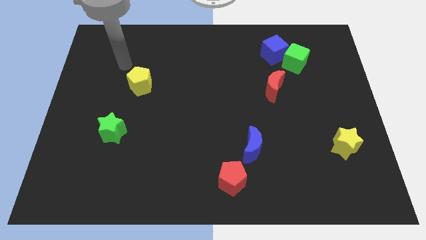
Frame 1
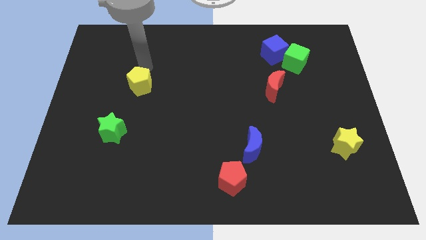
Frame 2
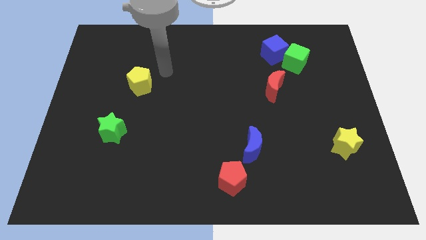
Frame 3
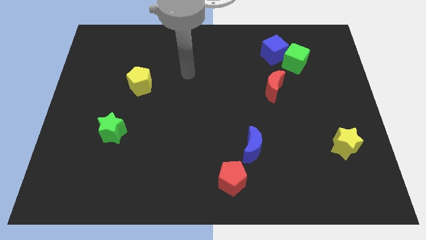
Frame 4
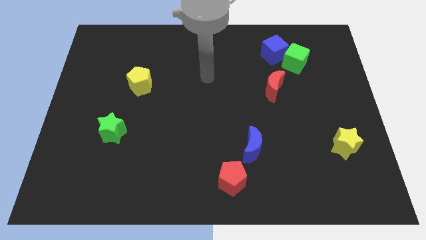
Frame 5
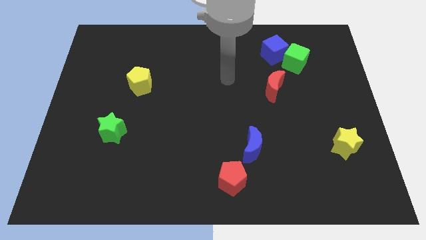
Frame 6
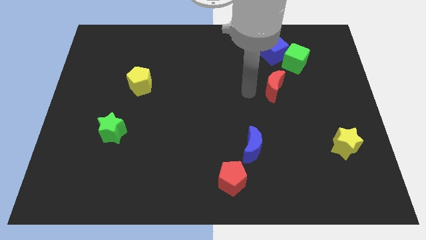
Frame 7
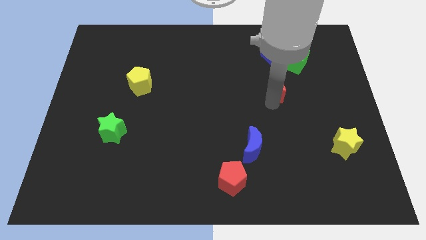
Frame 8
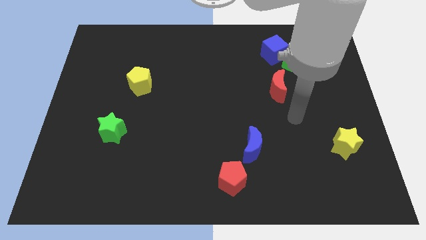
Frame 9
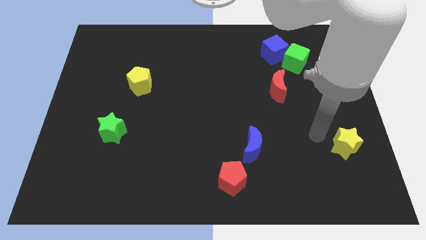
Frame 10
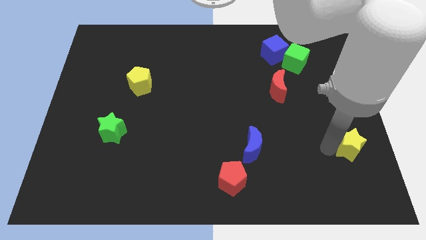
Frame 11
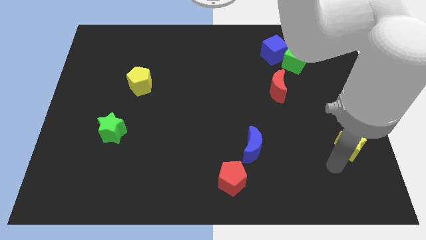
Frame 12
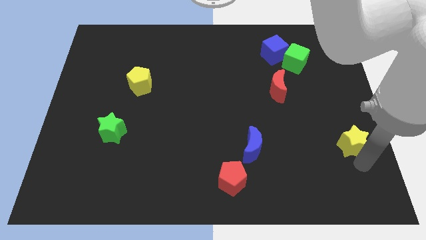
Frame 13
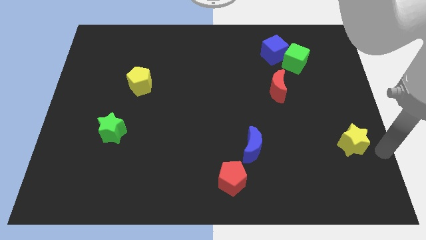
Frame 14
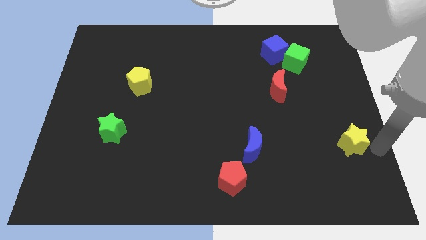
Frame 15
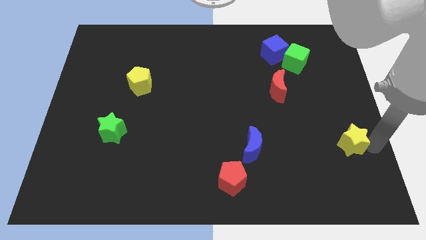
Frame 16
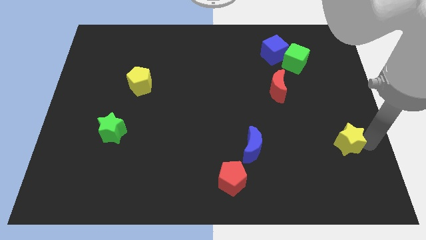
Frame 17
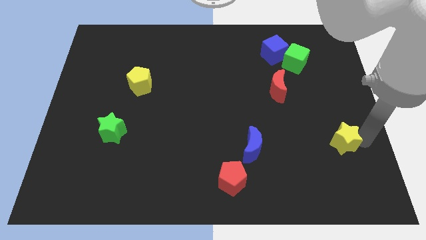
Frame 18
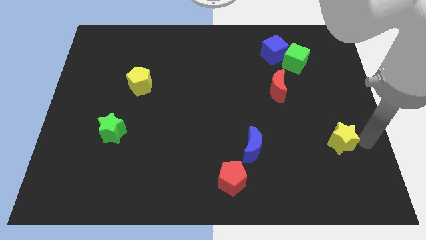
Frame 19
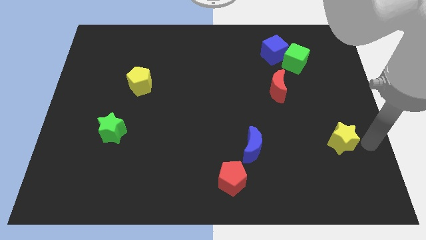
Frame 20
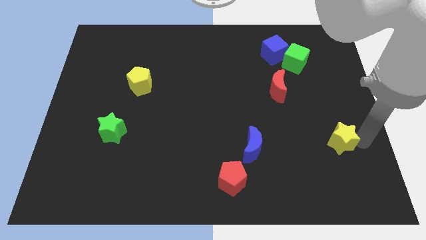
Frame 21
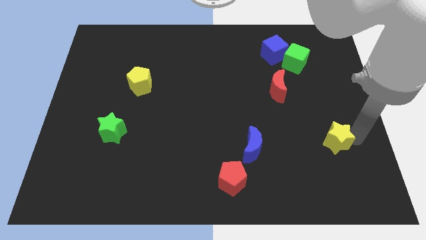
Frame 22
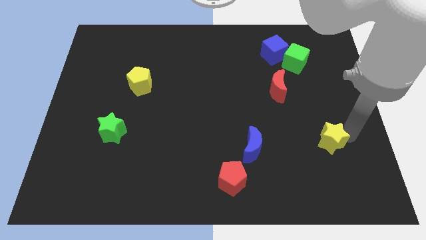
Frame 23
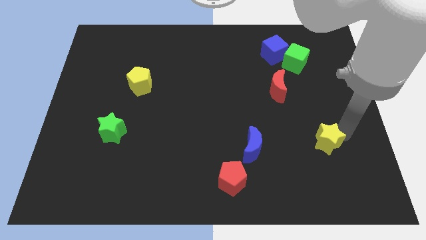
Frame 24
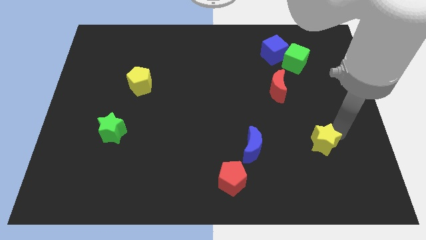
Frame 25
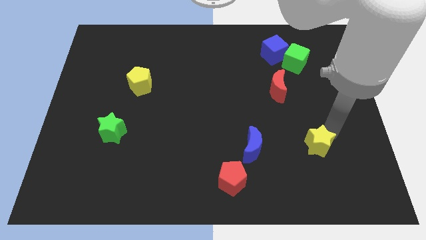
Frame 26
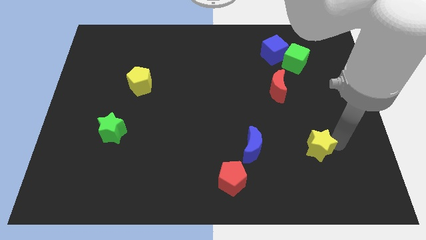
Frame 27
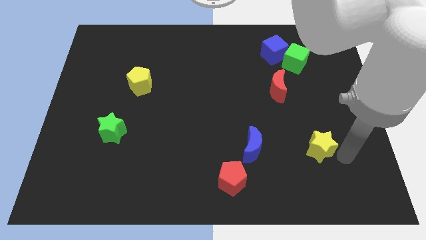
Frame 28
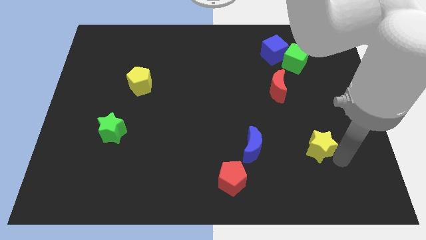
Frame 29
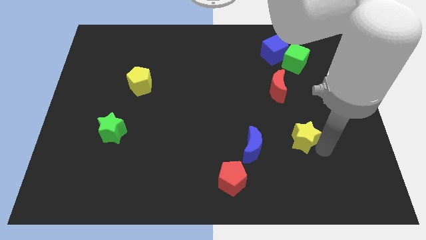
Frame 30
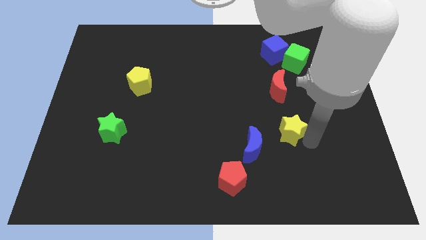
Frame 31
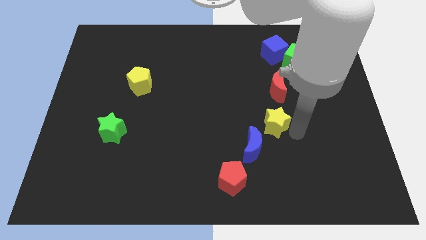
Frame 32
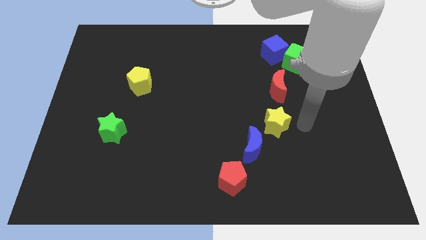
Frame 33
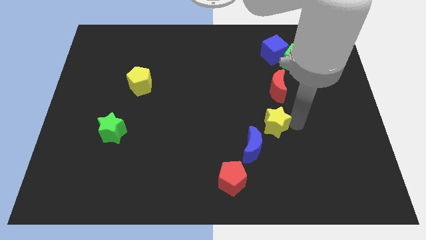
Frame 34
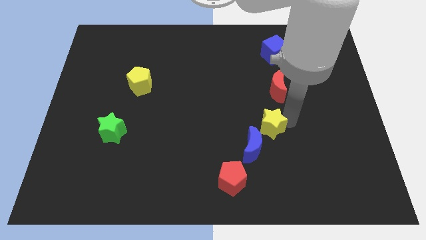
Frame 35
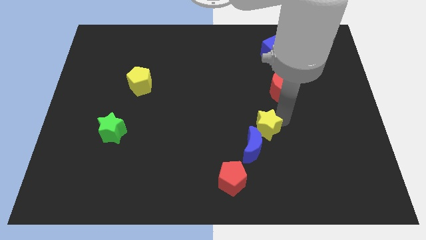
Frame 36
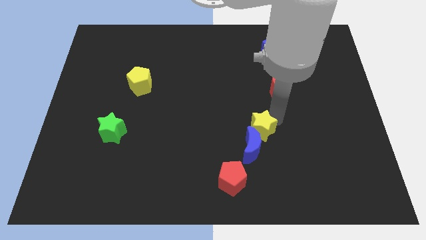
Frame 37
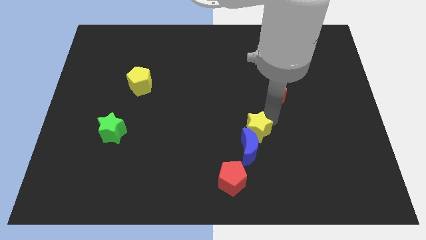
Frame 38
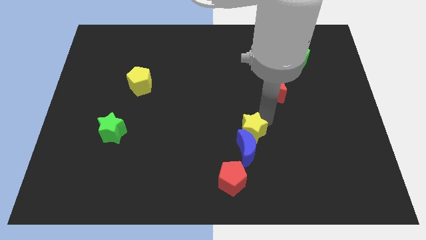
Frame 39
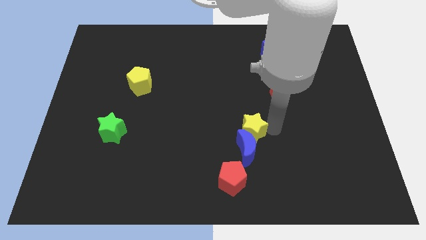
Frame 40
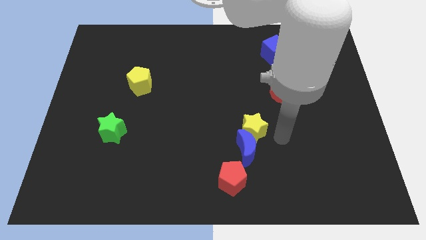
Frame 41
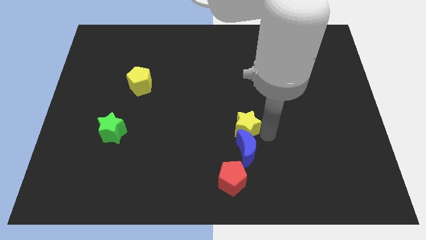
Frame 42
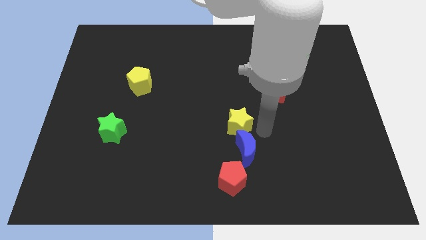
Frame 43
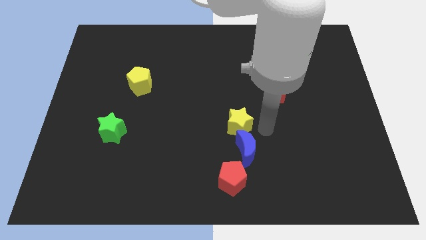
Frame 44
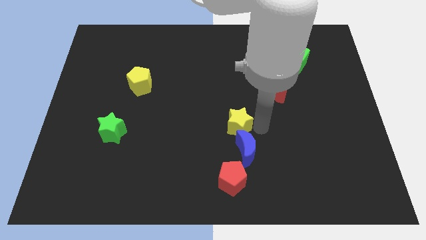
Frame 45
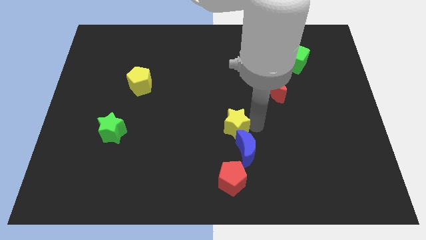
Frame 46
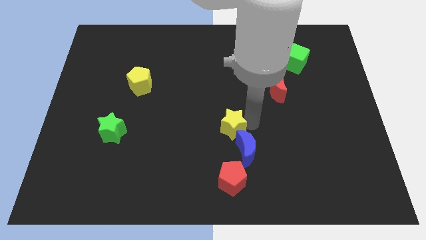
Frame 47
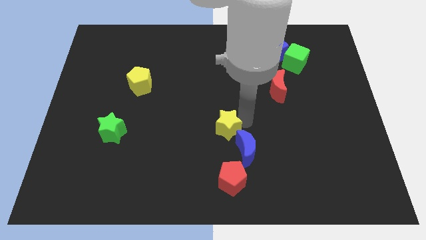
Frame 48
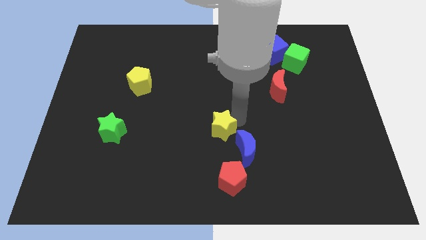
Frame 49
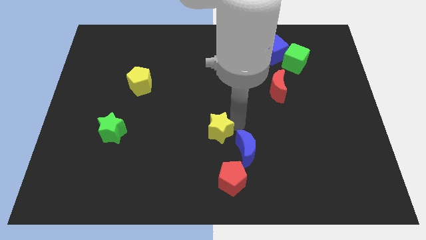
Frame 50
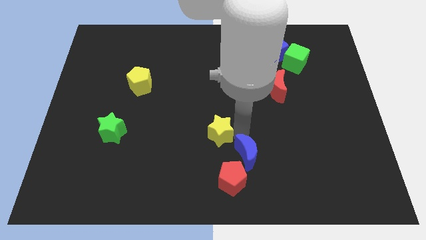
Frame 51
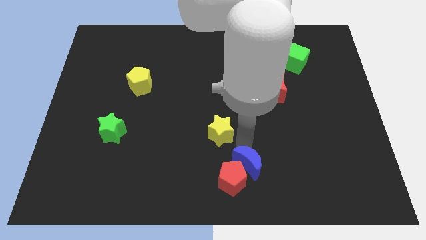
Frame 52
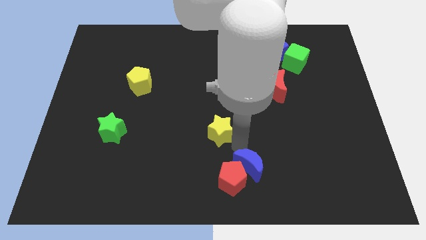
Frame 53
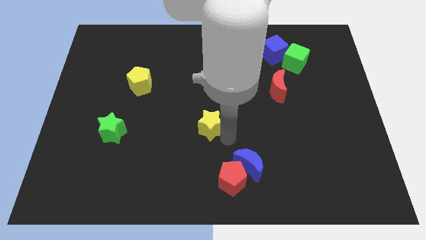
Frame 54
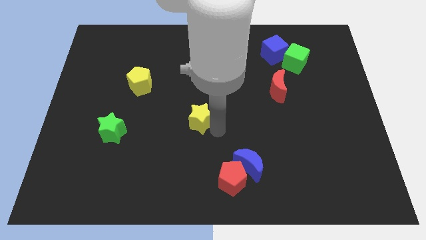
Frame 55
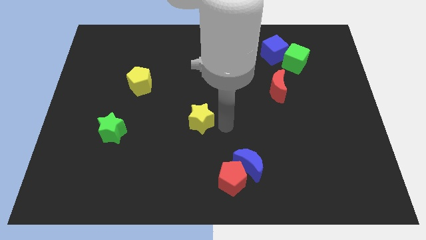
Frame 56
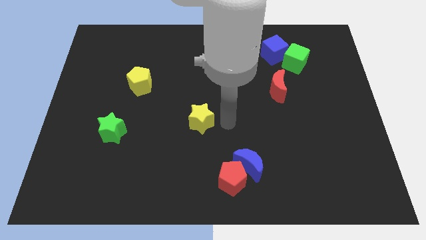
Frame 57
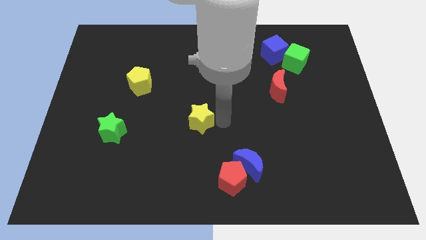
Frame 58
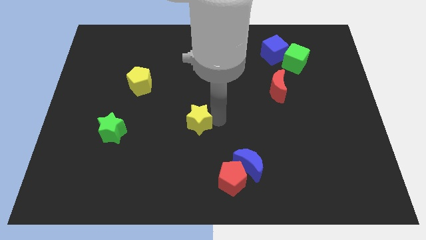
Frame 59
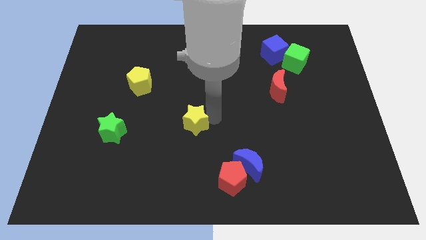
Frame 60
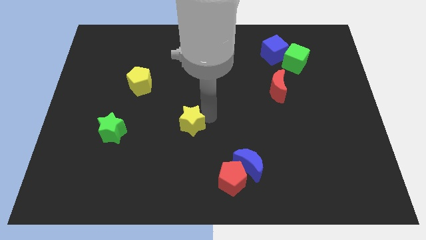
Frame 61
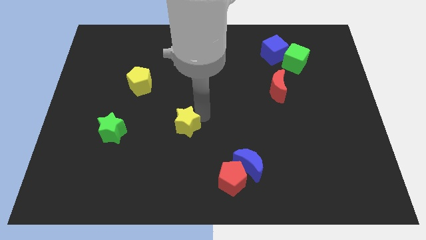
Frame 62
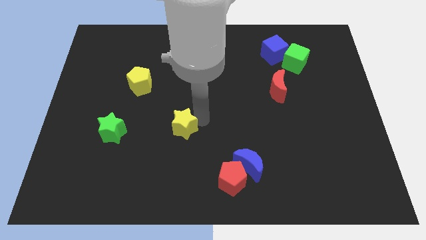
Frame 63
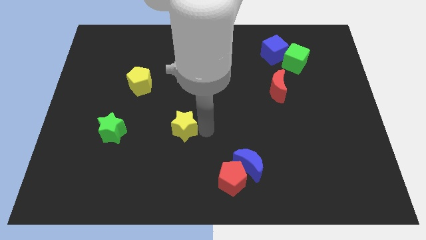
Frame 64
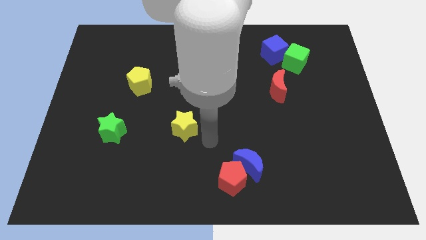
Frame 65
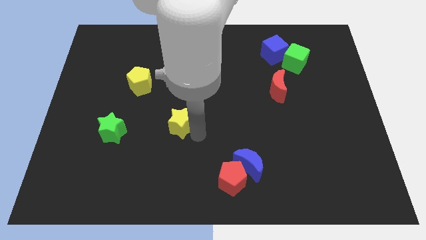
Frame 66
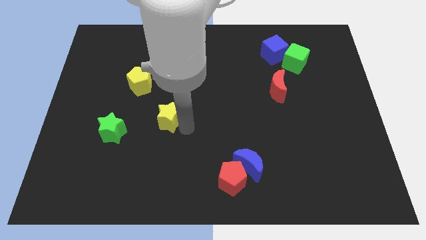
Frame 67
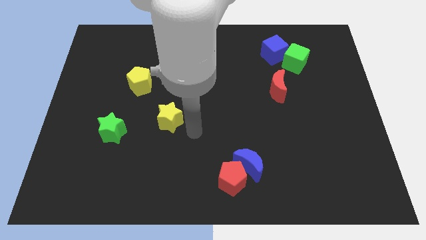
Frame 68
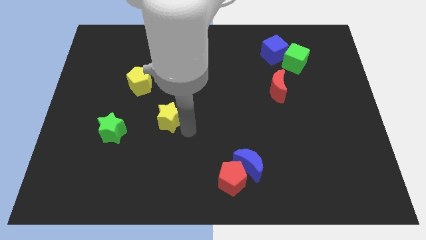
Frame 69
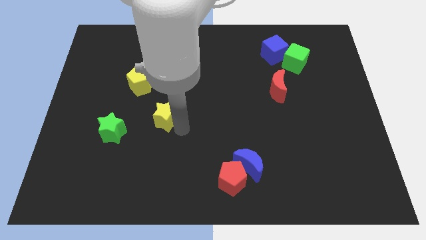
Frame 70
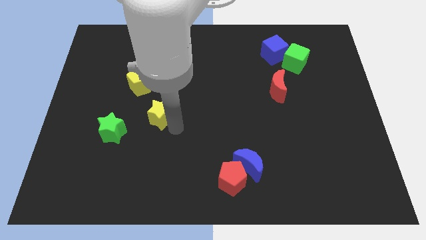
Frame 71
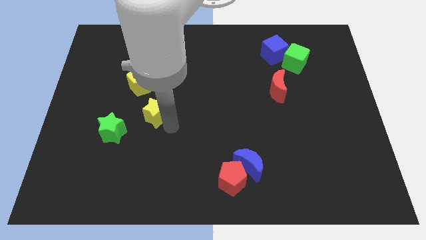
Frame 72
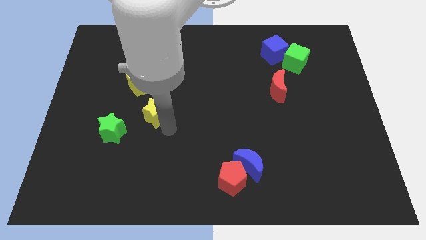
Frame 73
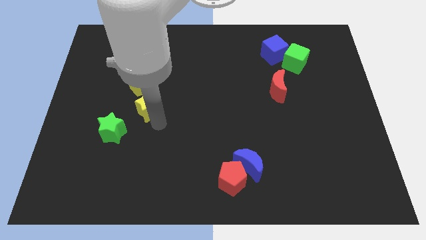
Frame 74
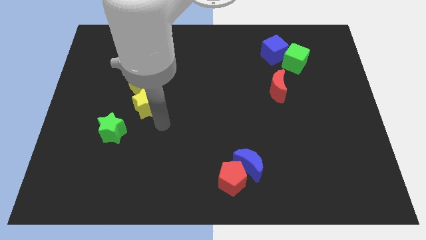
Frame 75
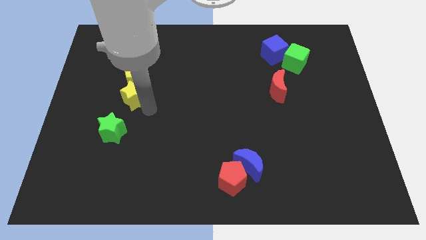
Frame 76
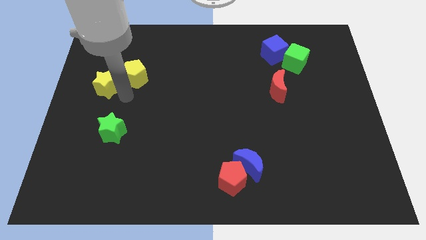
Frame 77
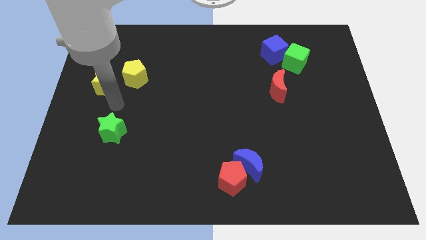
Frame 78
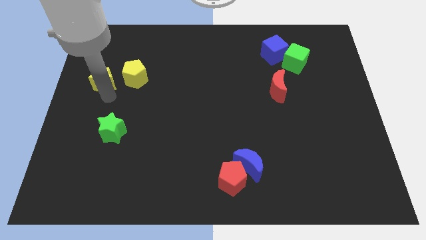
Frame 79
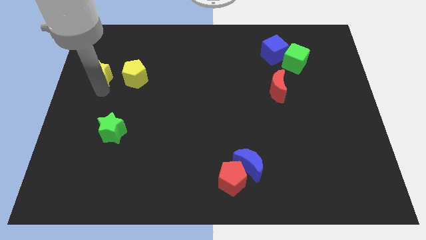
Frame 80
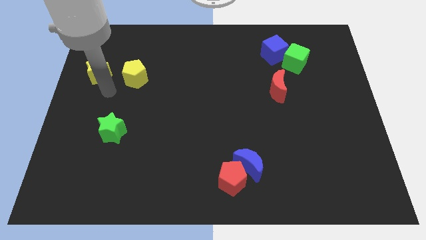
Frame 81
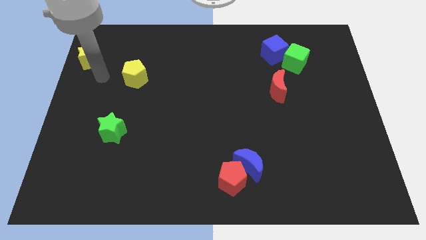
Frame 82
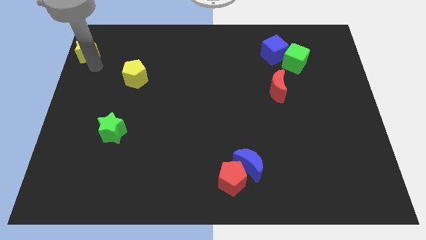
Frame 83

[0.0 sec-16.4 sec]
slide the yellow star to the upper left corner
